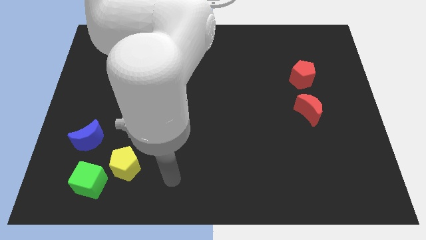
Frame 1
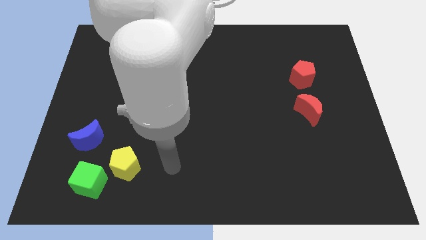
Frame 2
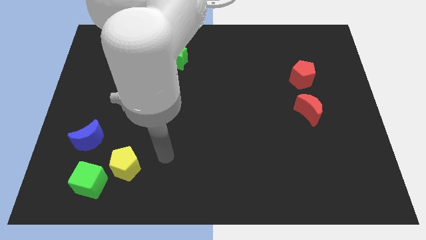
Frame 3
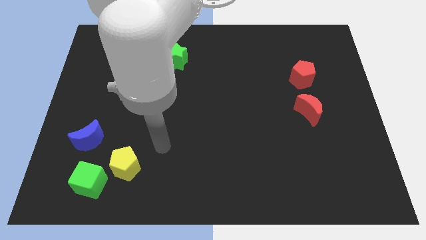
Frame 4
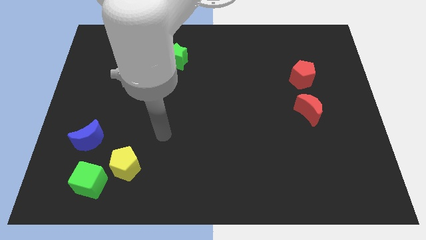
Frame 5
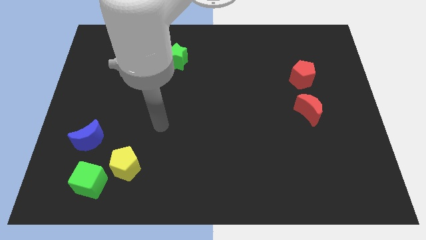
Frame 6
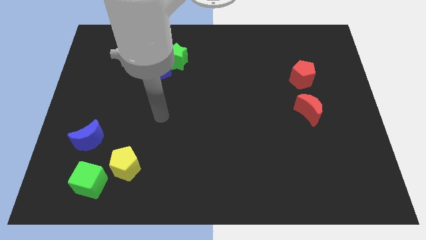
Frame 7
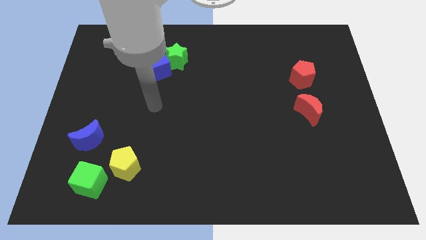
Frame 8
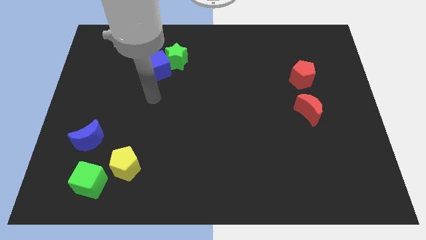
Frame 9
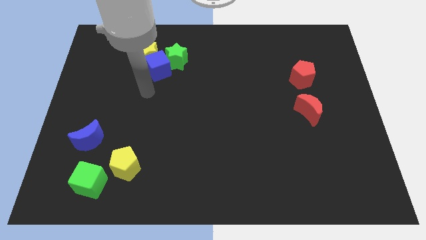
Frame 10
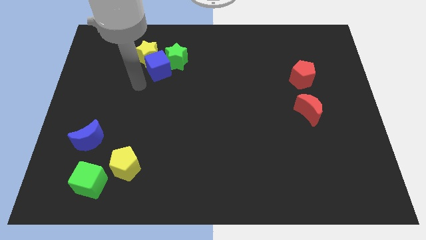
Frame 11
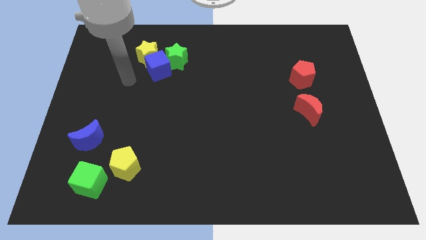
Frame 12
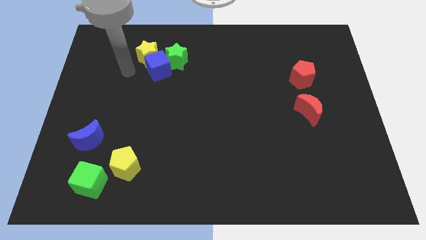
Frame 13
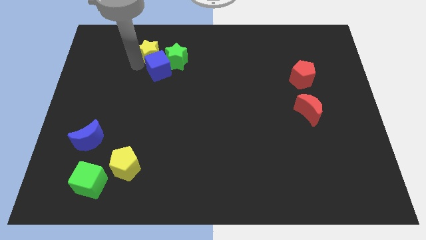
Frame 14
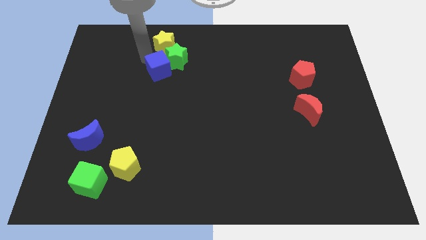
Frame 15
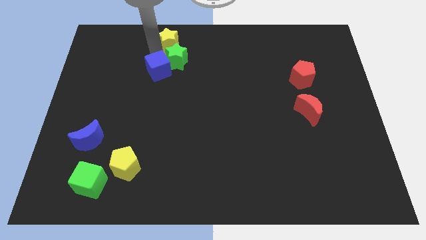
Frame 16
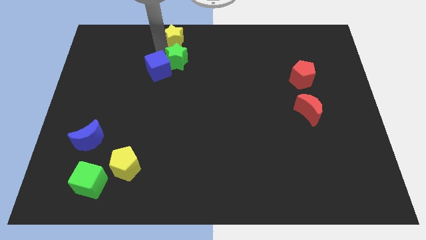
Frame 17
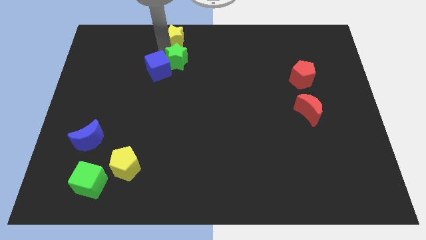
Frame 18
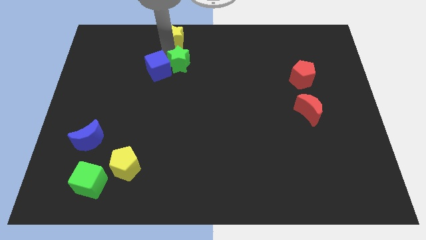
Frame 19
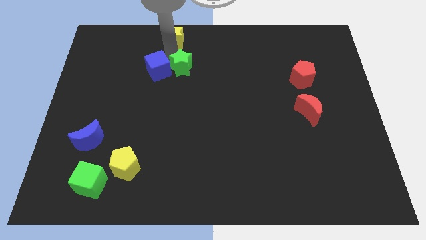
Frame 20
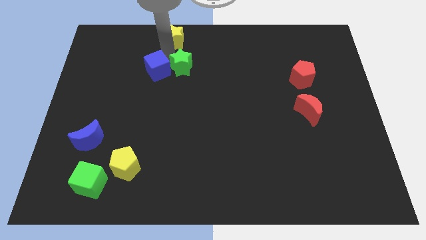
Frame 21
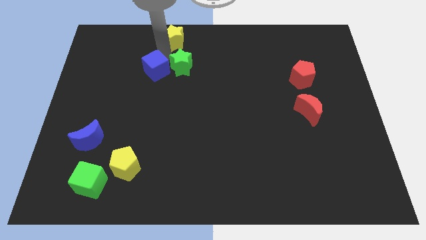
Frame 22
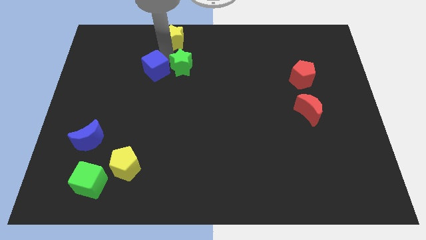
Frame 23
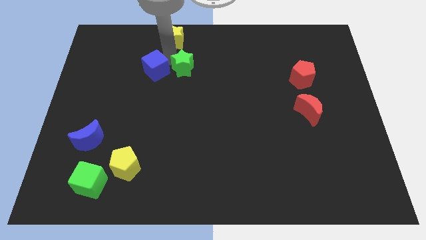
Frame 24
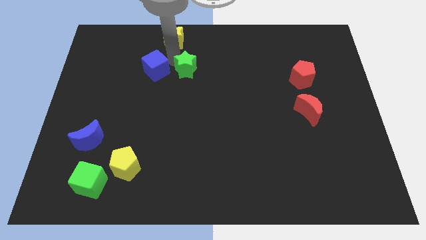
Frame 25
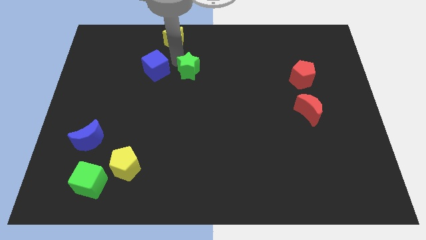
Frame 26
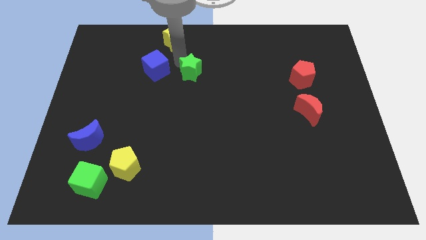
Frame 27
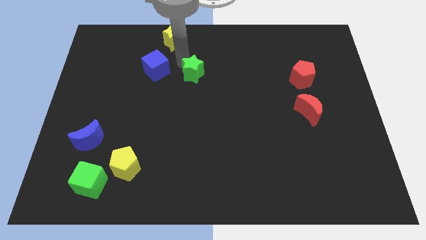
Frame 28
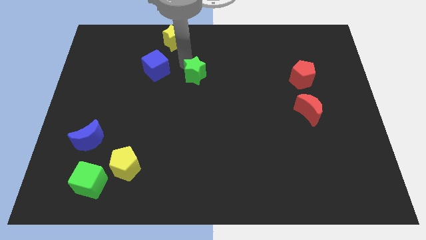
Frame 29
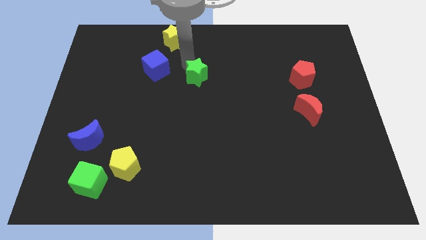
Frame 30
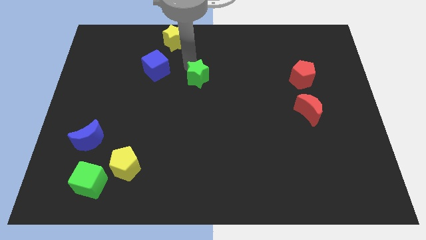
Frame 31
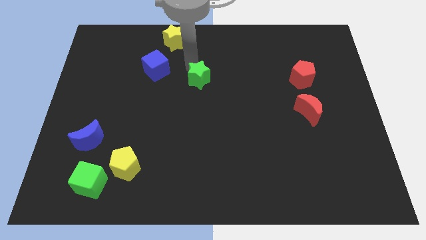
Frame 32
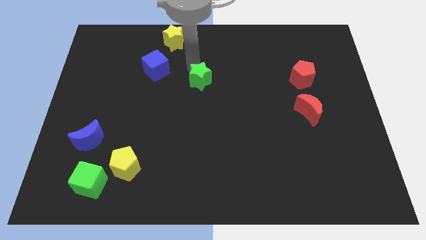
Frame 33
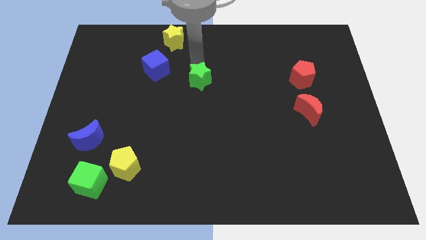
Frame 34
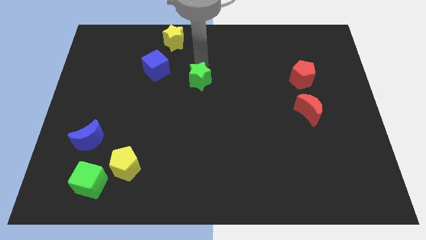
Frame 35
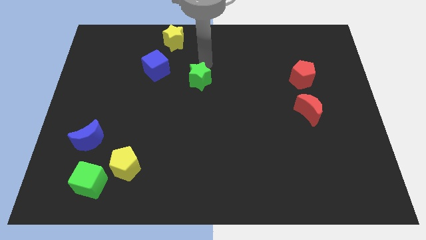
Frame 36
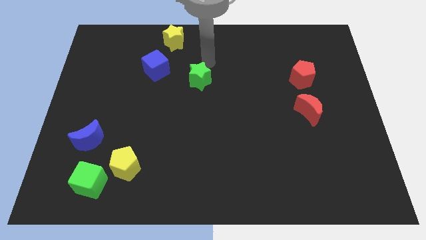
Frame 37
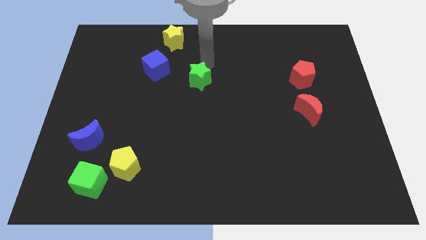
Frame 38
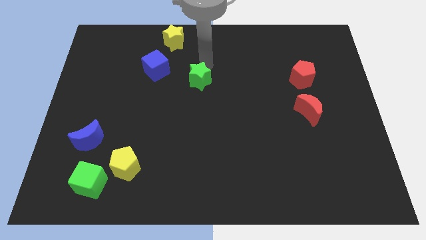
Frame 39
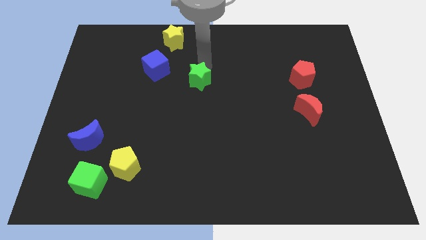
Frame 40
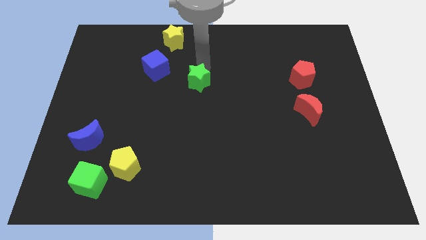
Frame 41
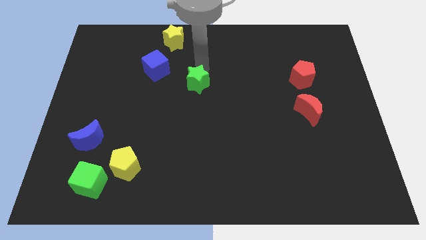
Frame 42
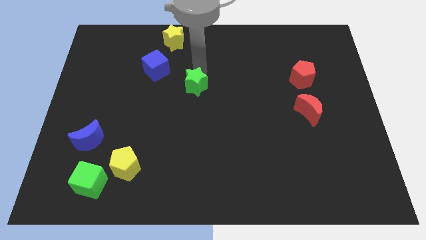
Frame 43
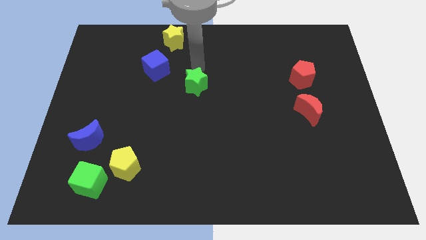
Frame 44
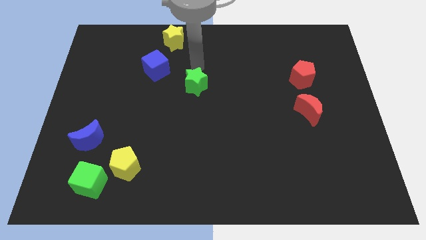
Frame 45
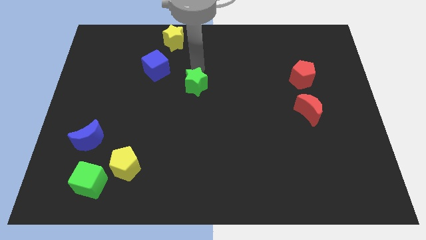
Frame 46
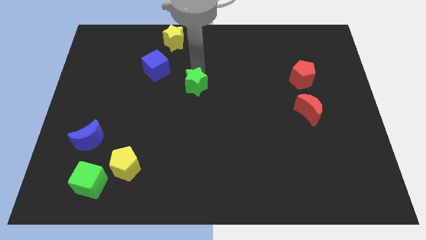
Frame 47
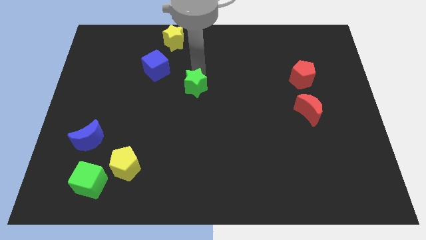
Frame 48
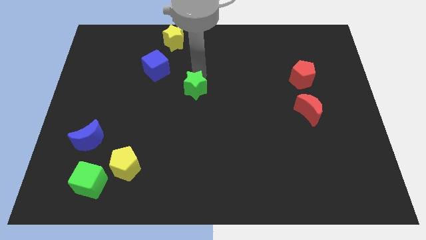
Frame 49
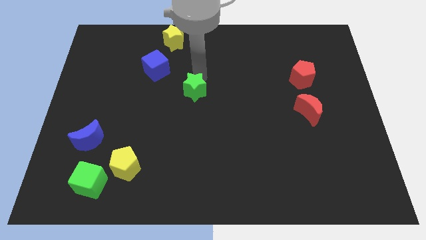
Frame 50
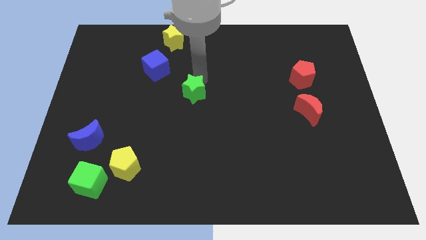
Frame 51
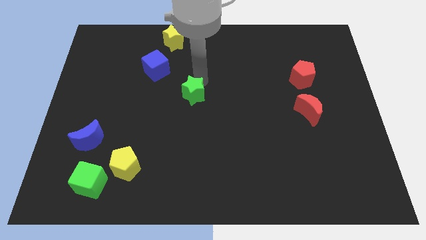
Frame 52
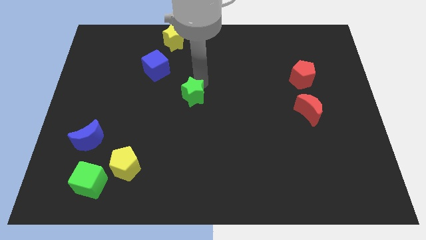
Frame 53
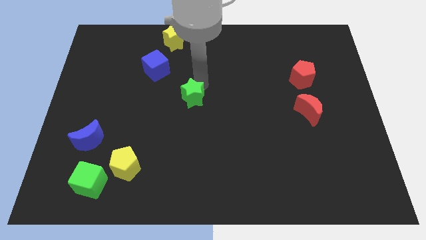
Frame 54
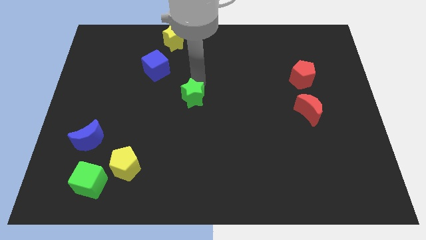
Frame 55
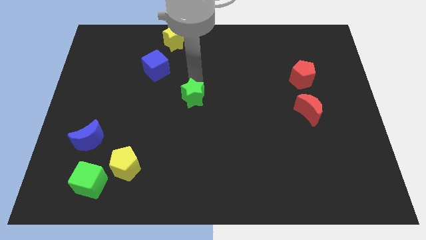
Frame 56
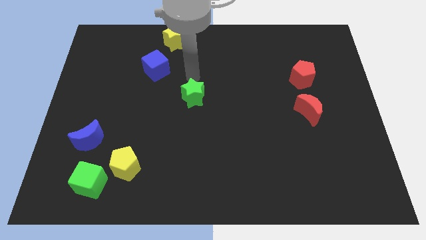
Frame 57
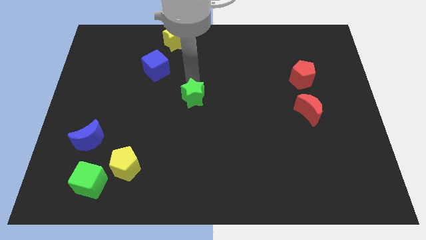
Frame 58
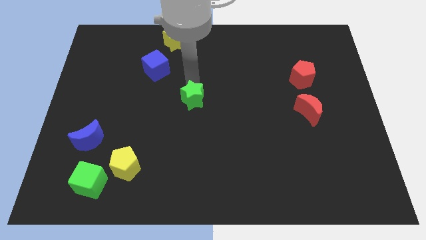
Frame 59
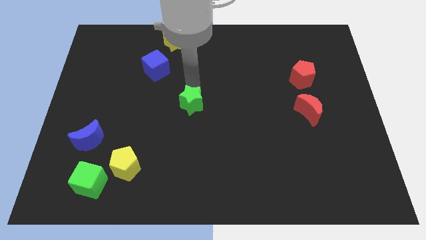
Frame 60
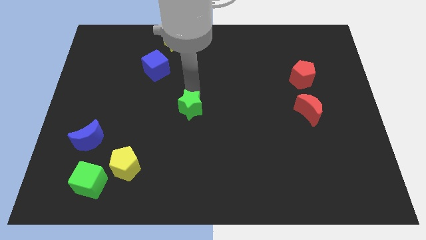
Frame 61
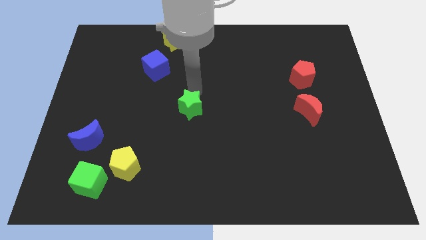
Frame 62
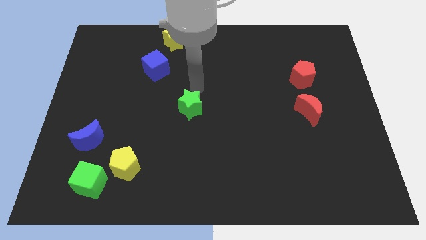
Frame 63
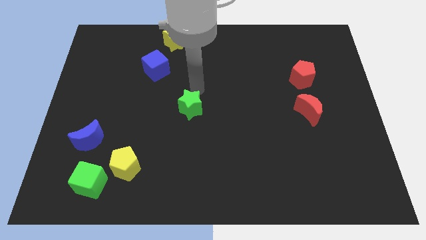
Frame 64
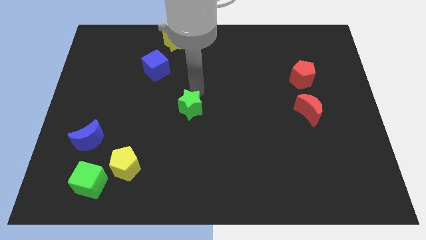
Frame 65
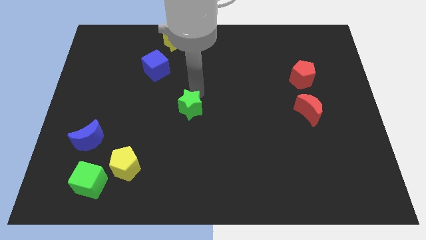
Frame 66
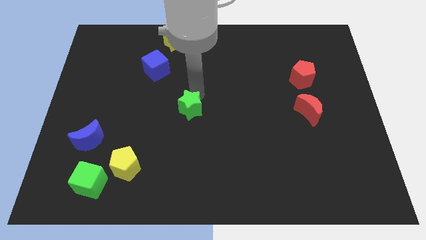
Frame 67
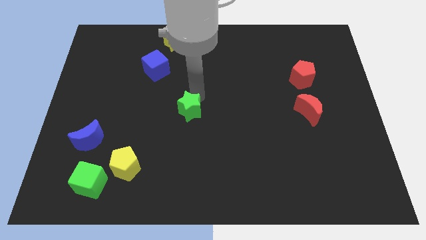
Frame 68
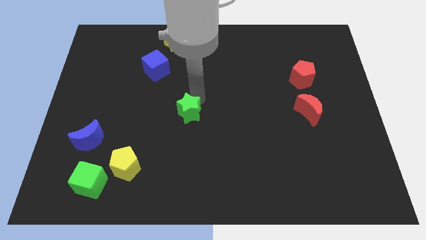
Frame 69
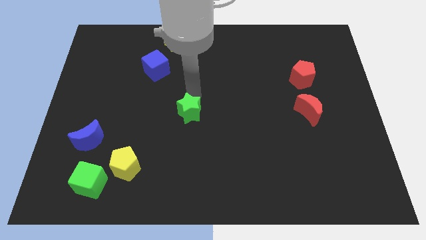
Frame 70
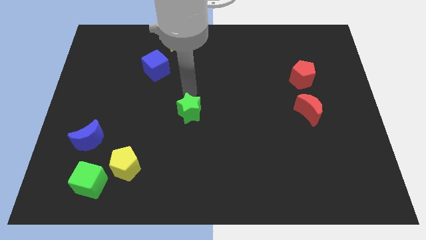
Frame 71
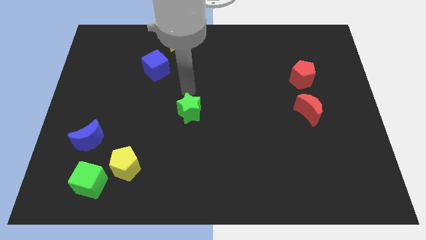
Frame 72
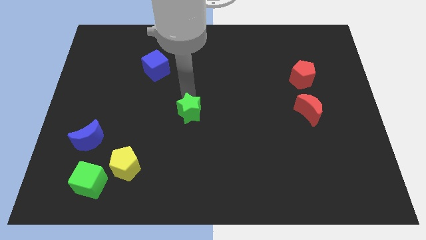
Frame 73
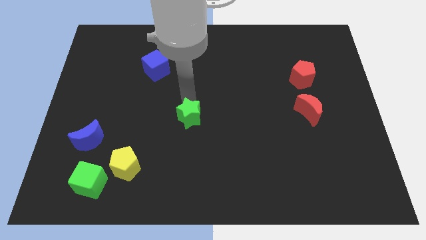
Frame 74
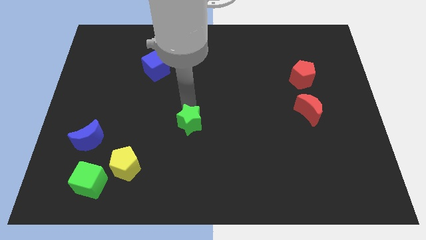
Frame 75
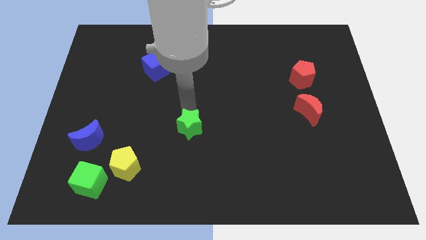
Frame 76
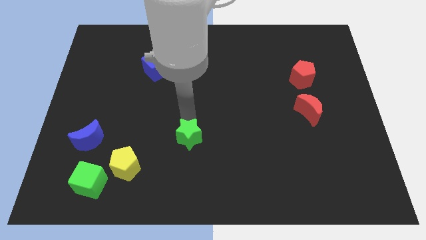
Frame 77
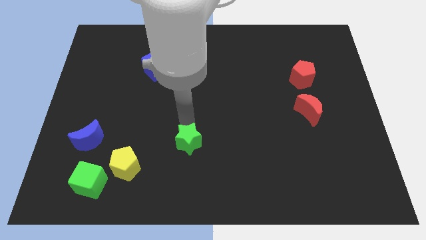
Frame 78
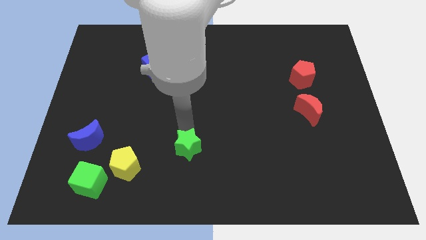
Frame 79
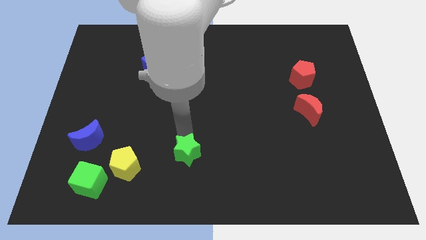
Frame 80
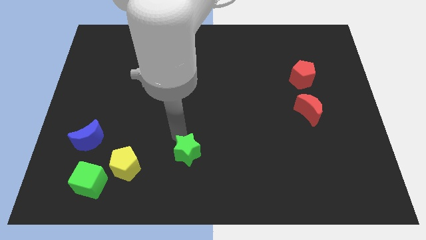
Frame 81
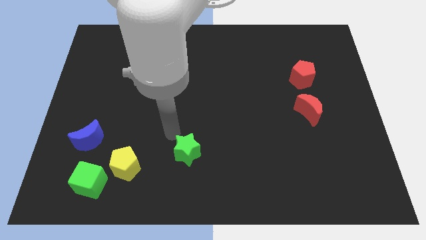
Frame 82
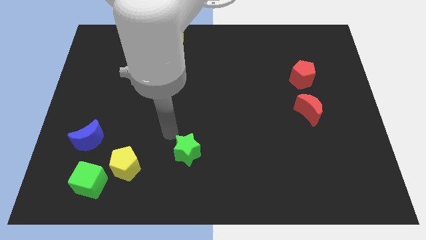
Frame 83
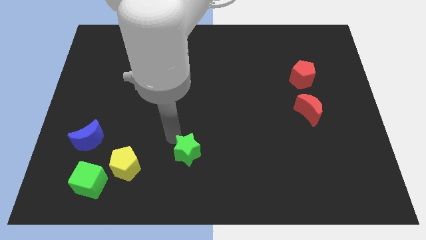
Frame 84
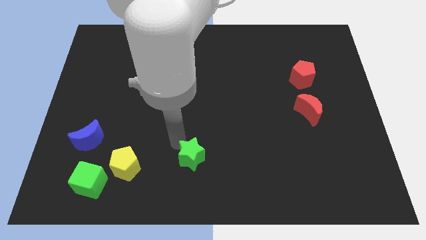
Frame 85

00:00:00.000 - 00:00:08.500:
slide the green star to the bottom side
